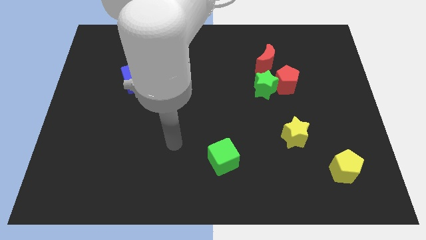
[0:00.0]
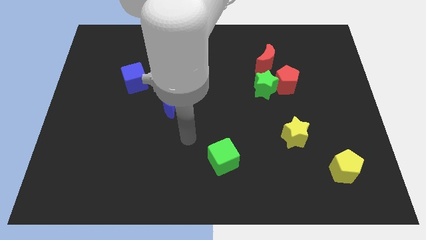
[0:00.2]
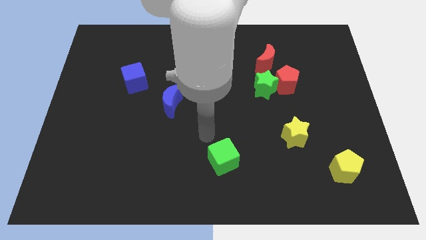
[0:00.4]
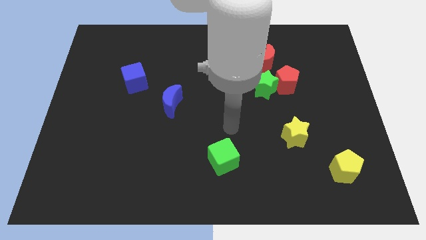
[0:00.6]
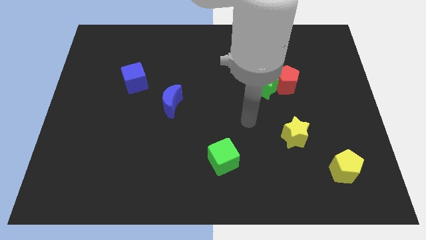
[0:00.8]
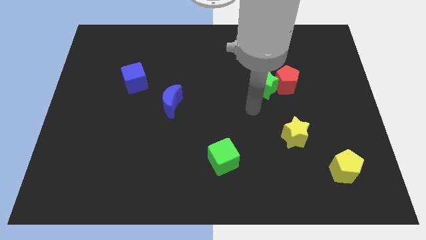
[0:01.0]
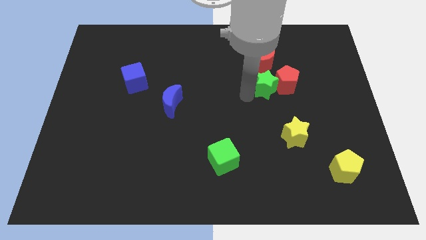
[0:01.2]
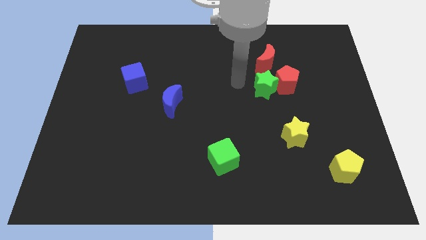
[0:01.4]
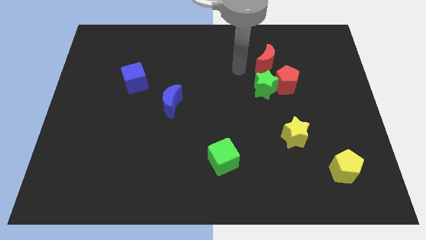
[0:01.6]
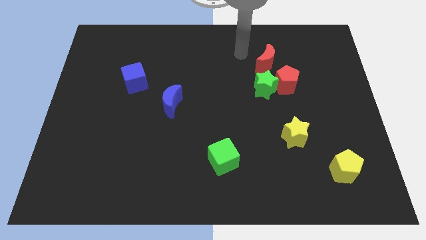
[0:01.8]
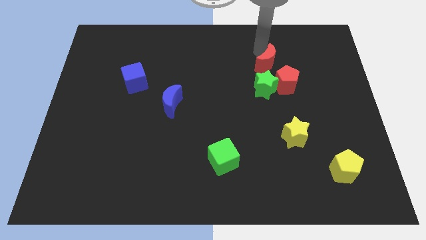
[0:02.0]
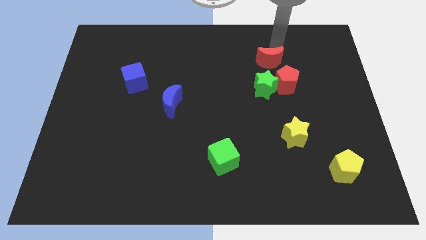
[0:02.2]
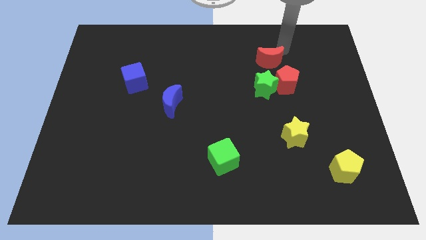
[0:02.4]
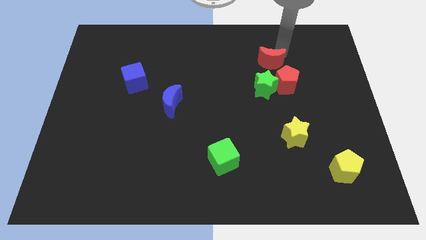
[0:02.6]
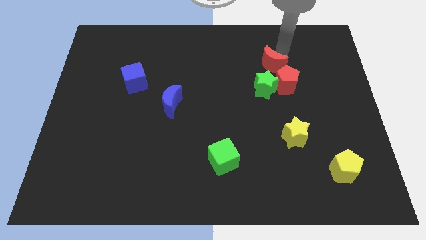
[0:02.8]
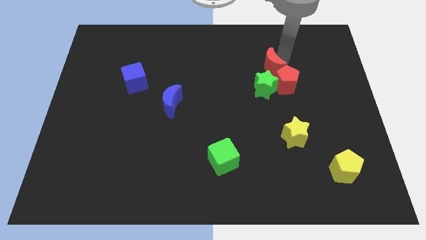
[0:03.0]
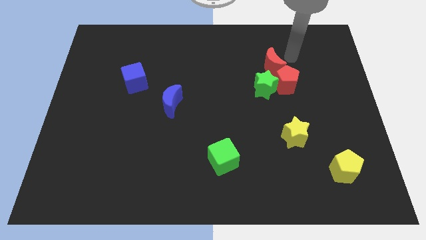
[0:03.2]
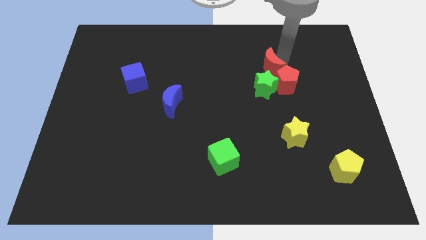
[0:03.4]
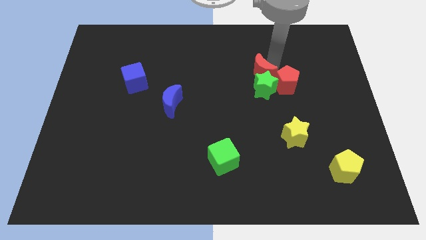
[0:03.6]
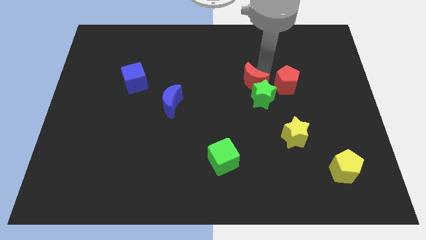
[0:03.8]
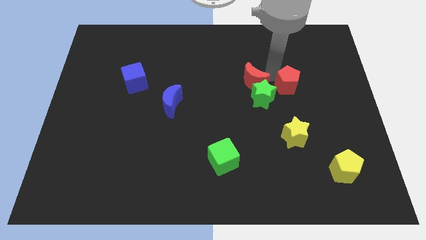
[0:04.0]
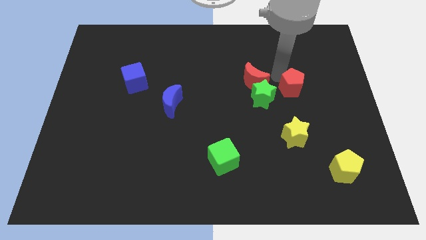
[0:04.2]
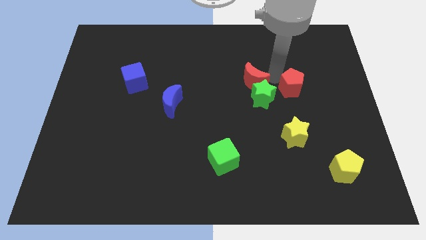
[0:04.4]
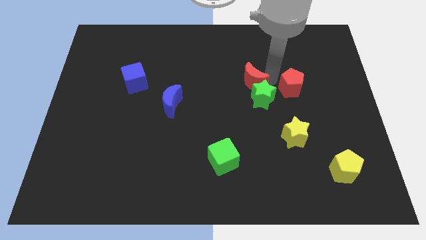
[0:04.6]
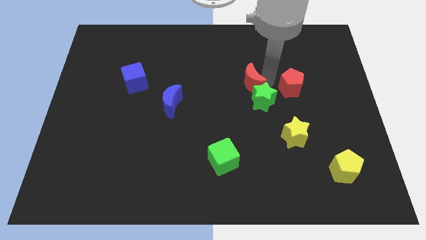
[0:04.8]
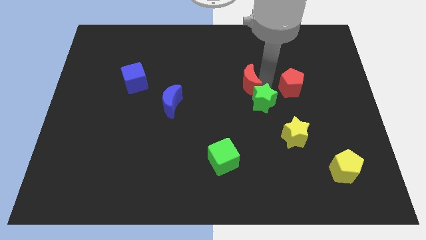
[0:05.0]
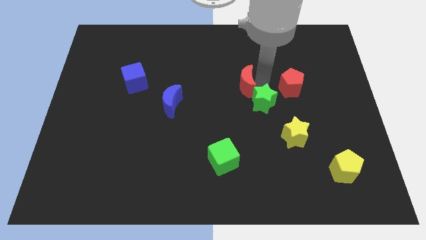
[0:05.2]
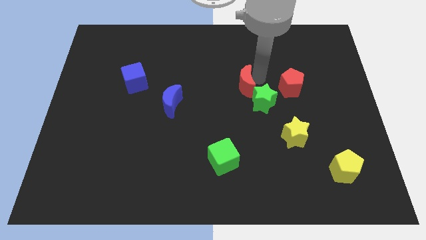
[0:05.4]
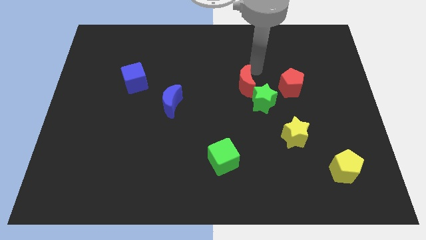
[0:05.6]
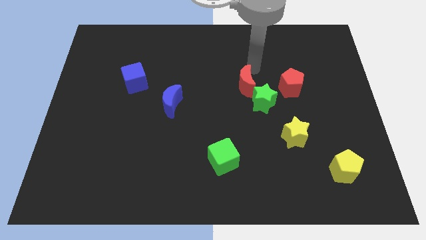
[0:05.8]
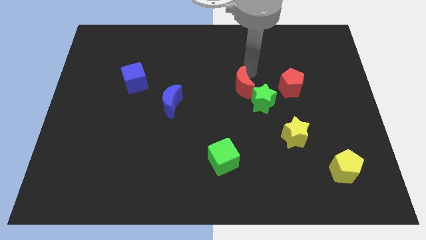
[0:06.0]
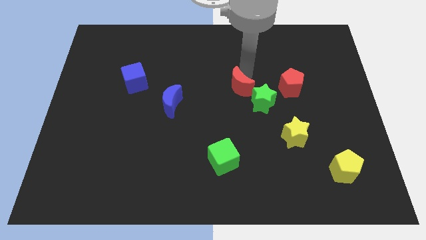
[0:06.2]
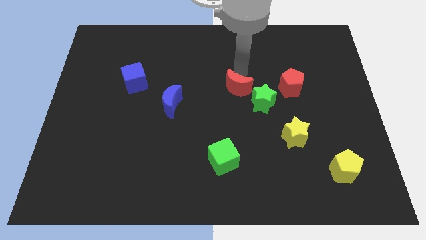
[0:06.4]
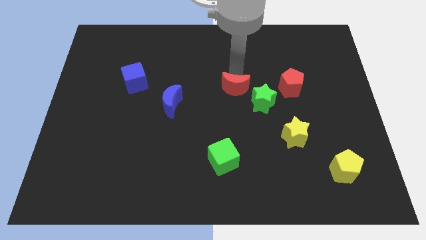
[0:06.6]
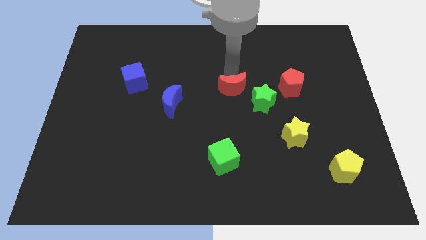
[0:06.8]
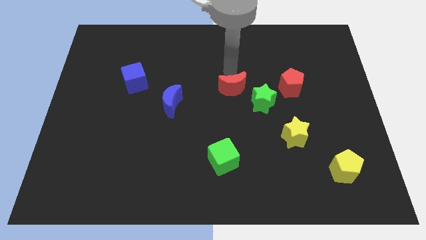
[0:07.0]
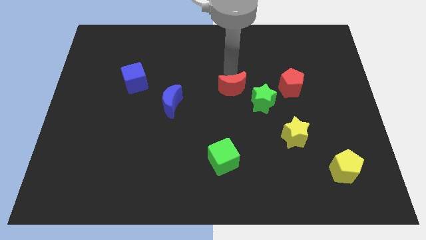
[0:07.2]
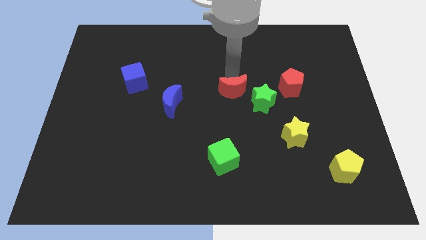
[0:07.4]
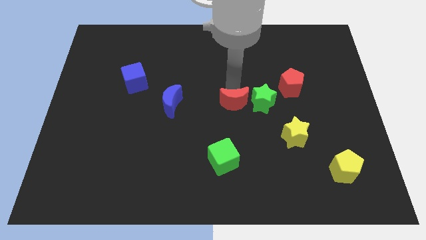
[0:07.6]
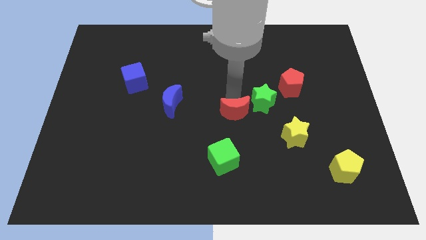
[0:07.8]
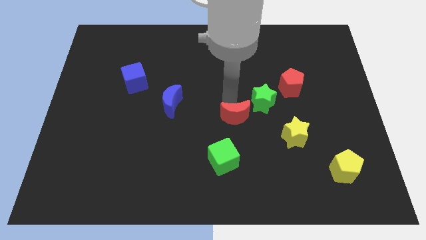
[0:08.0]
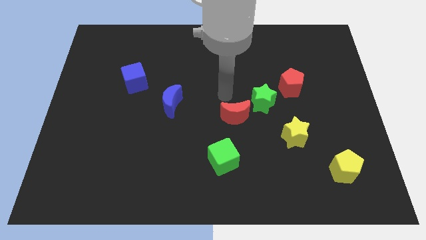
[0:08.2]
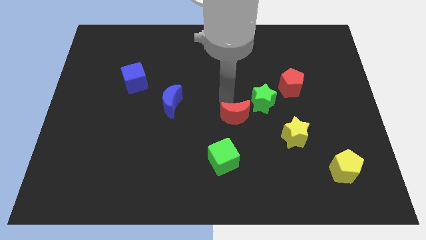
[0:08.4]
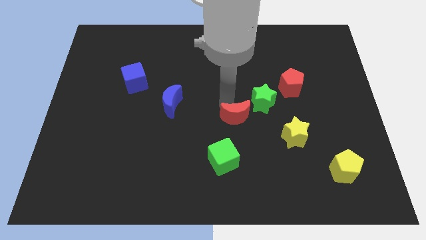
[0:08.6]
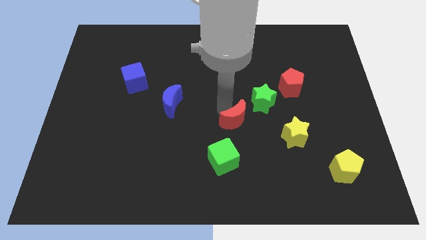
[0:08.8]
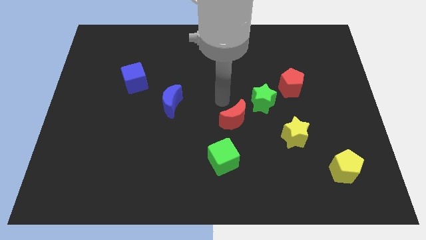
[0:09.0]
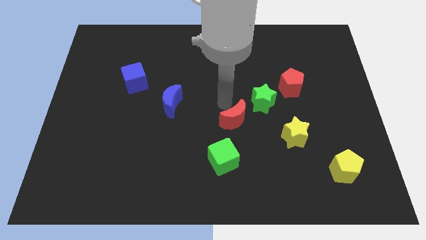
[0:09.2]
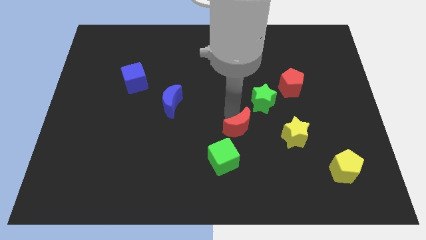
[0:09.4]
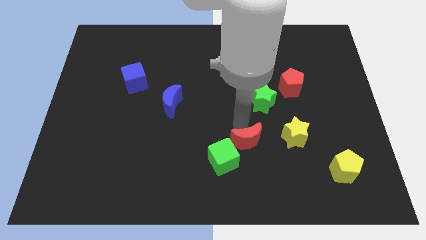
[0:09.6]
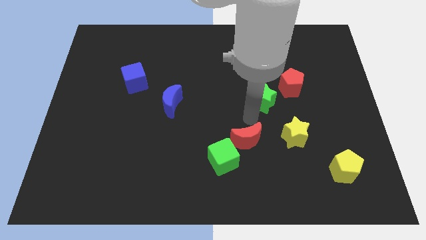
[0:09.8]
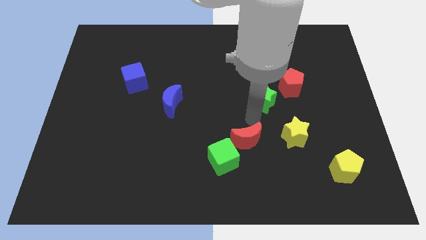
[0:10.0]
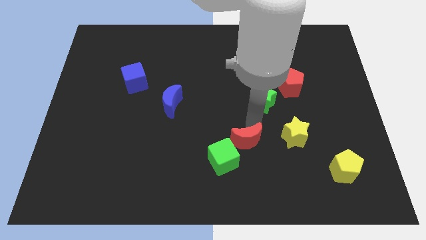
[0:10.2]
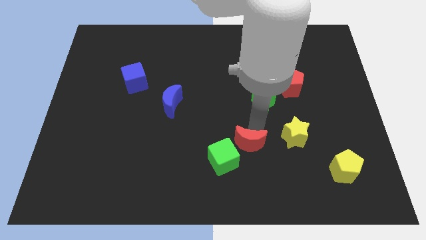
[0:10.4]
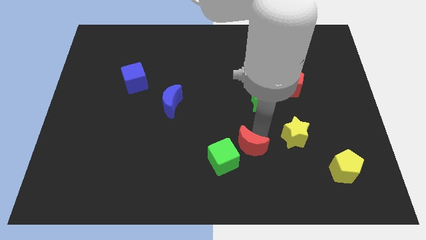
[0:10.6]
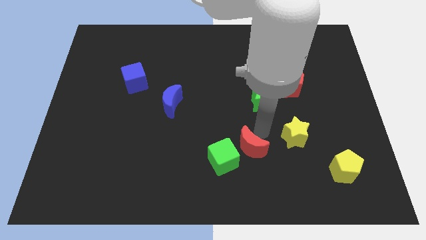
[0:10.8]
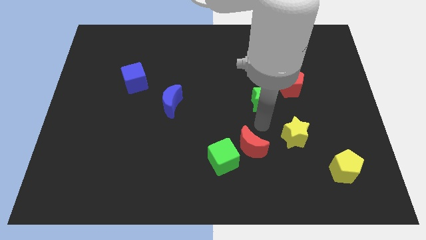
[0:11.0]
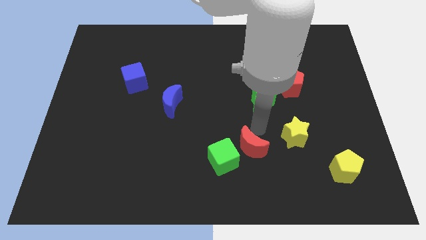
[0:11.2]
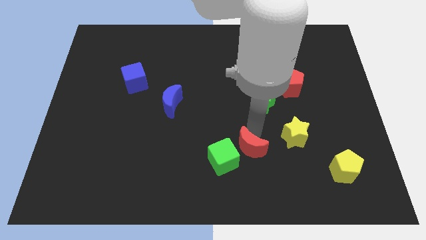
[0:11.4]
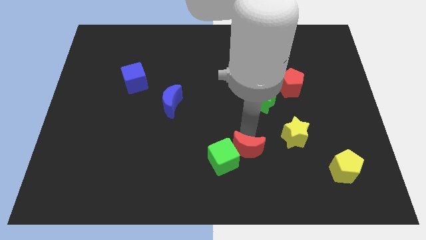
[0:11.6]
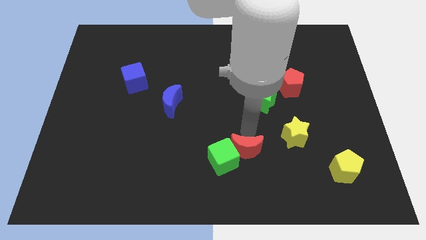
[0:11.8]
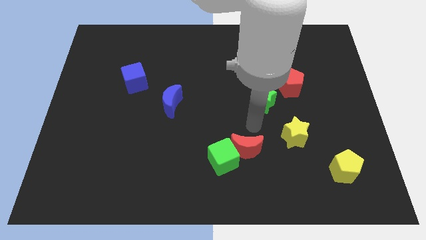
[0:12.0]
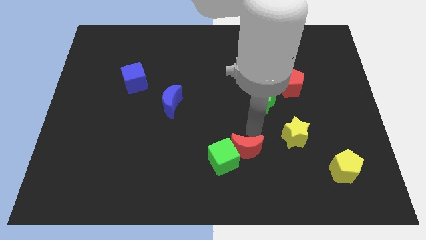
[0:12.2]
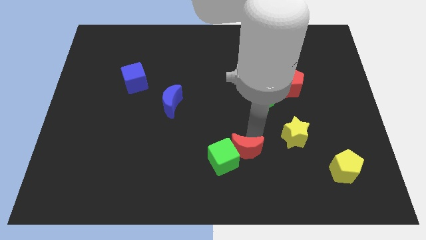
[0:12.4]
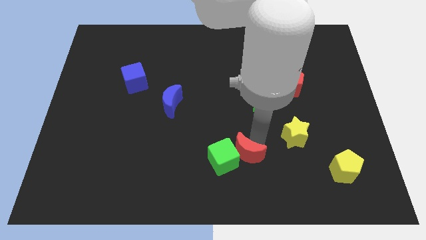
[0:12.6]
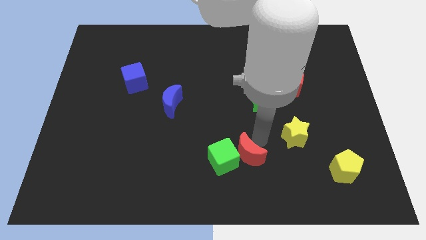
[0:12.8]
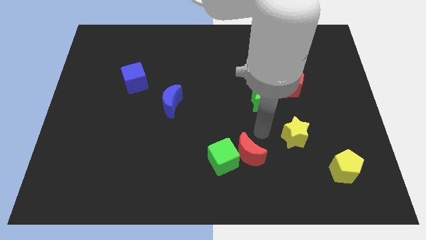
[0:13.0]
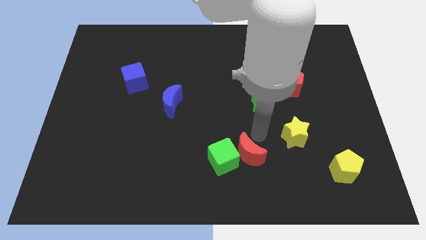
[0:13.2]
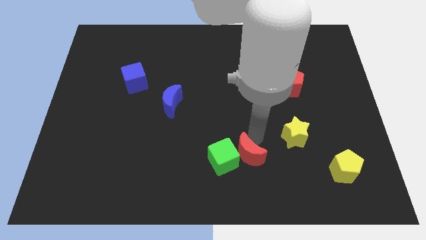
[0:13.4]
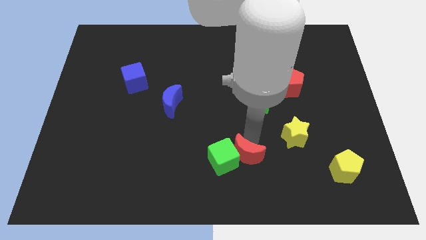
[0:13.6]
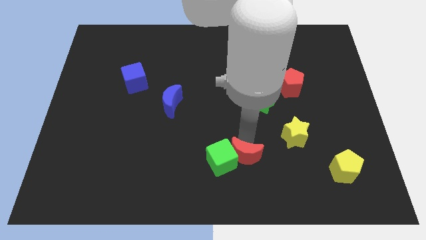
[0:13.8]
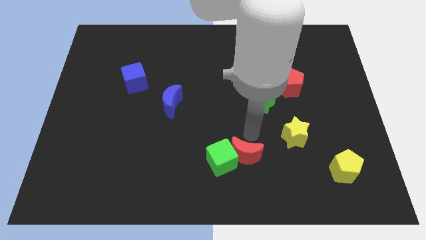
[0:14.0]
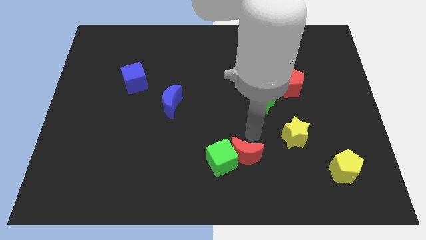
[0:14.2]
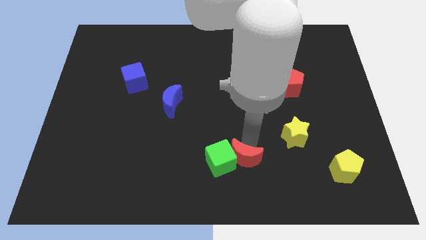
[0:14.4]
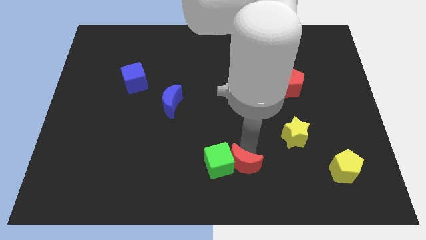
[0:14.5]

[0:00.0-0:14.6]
move the red moon to the bottom
